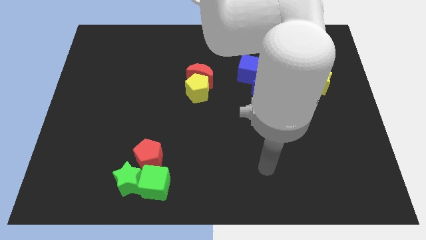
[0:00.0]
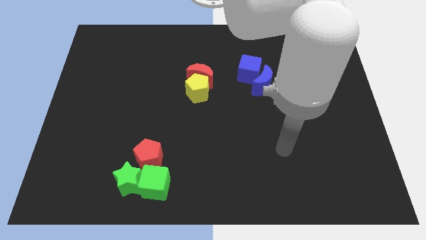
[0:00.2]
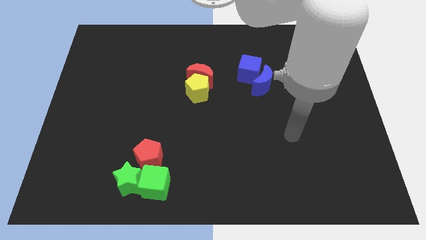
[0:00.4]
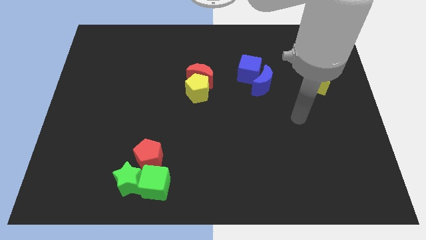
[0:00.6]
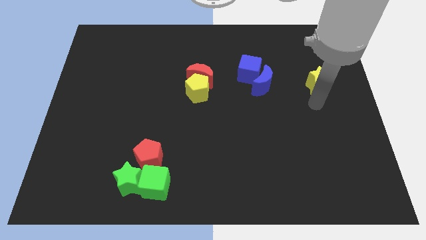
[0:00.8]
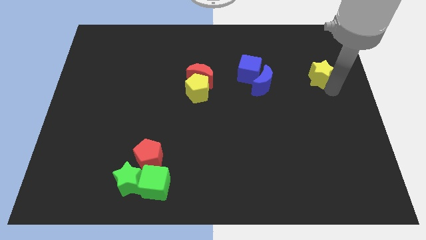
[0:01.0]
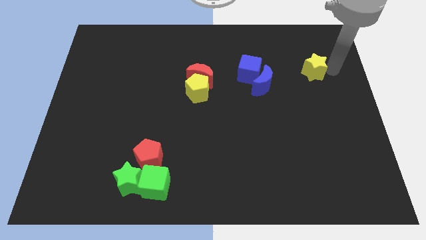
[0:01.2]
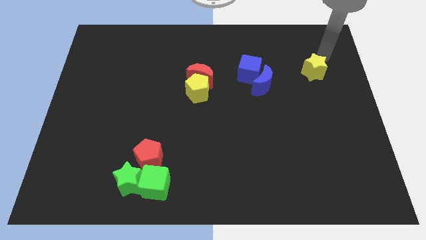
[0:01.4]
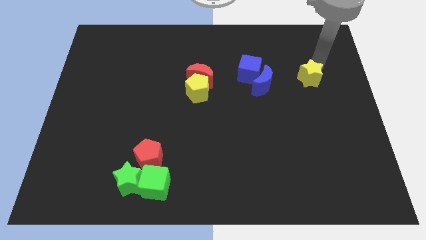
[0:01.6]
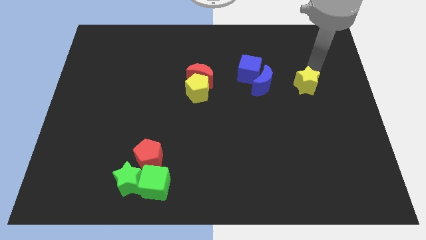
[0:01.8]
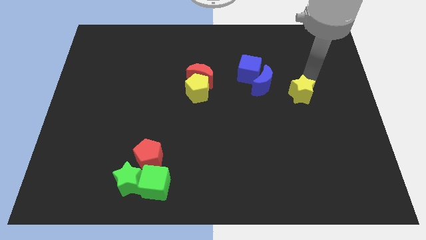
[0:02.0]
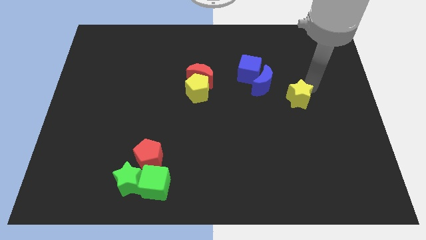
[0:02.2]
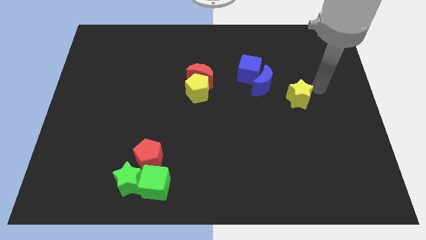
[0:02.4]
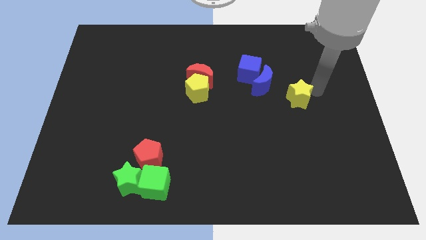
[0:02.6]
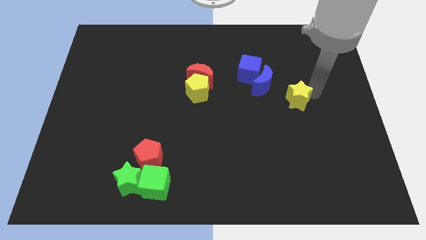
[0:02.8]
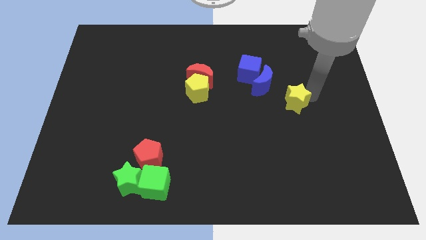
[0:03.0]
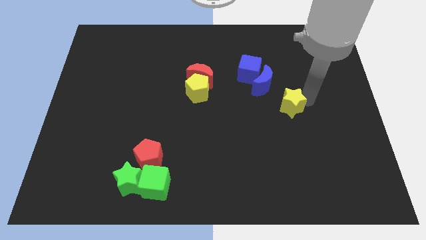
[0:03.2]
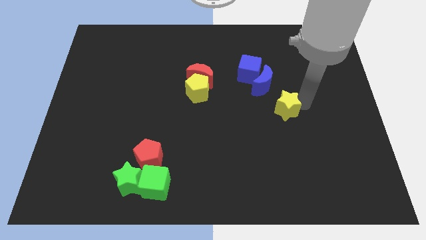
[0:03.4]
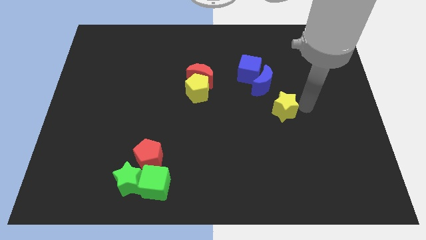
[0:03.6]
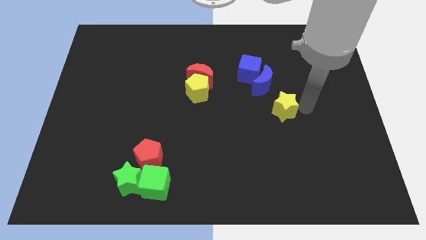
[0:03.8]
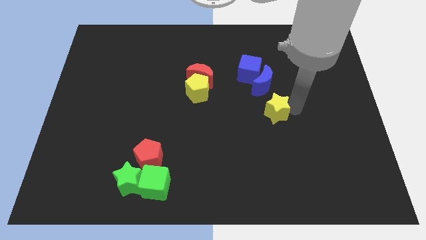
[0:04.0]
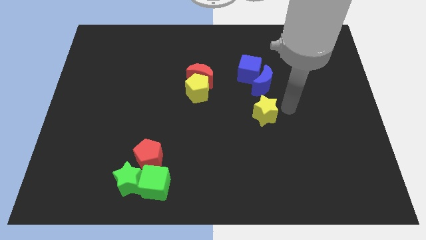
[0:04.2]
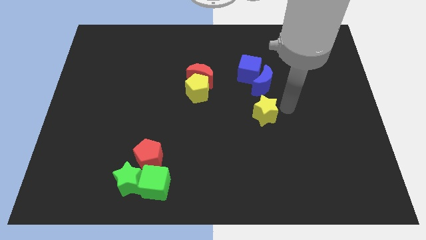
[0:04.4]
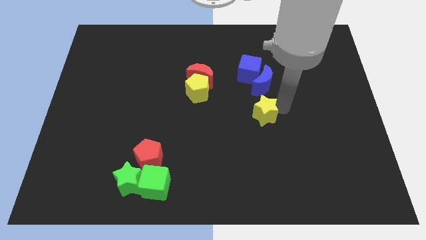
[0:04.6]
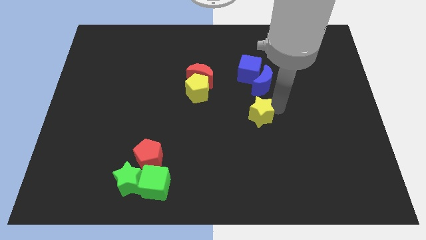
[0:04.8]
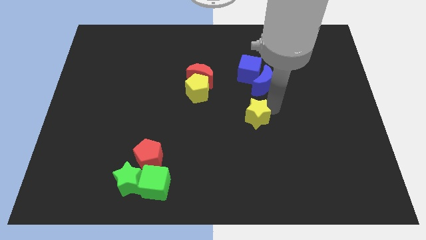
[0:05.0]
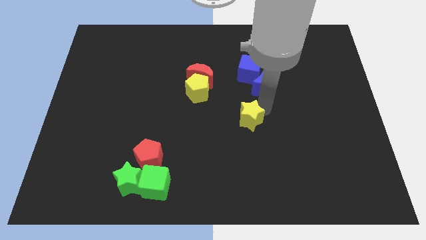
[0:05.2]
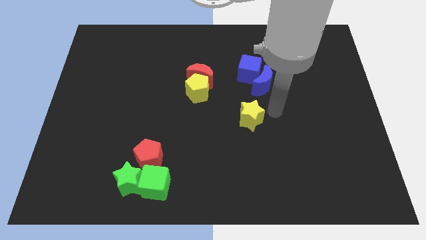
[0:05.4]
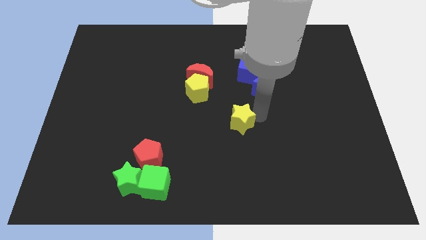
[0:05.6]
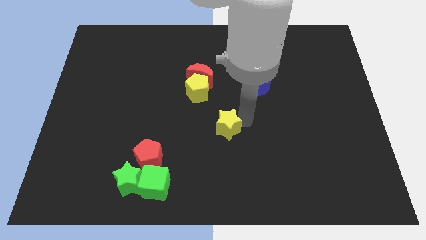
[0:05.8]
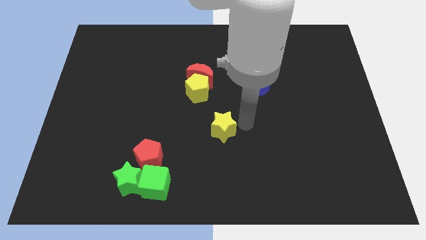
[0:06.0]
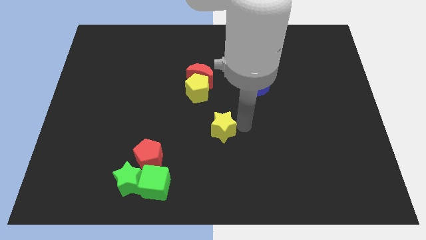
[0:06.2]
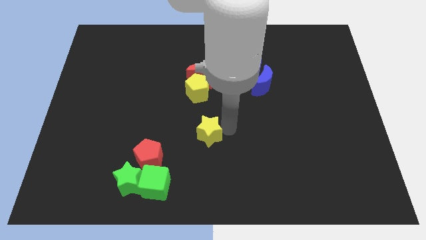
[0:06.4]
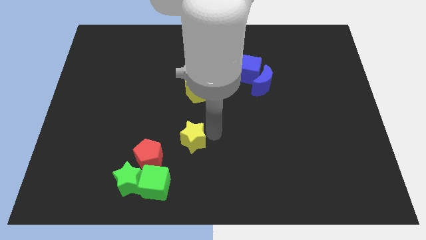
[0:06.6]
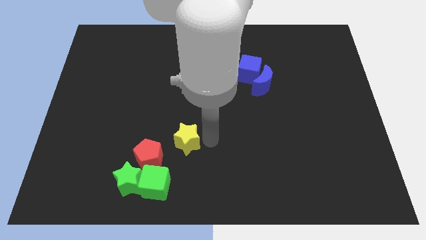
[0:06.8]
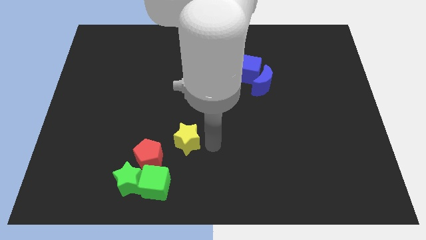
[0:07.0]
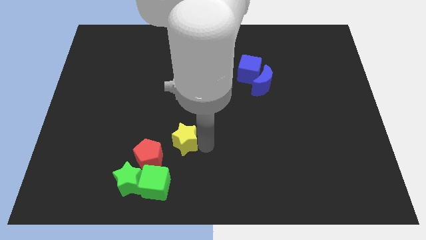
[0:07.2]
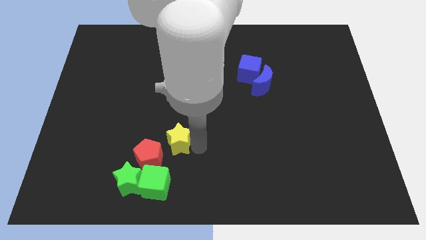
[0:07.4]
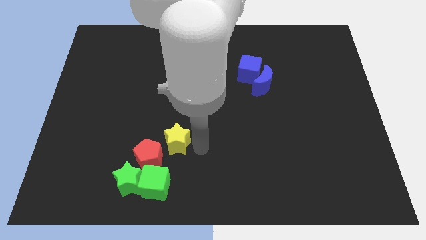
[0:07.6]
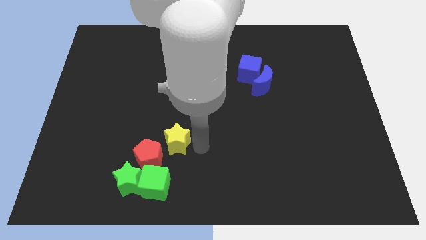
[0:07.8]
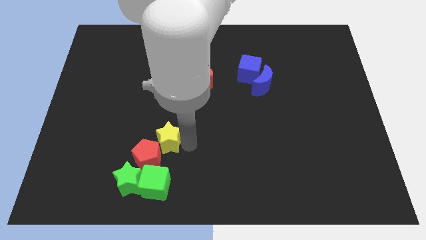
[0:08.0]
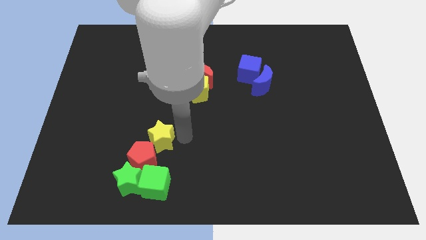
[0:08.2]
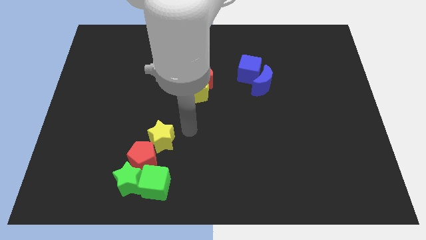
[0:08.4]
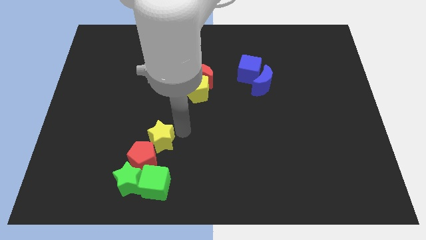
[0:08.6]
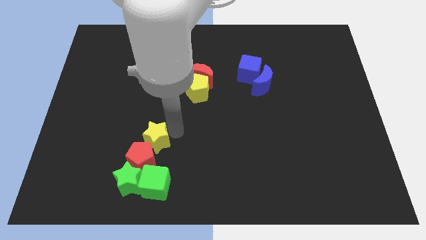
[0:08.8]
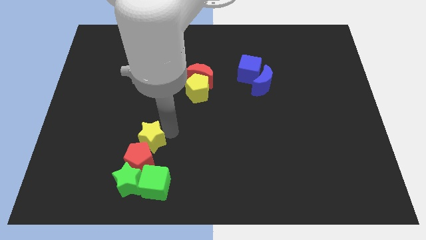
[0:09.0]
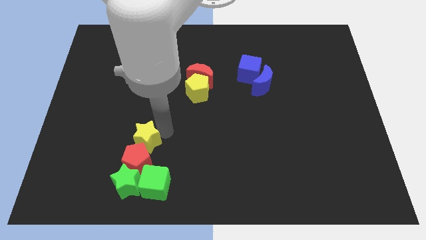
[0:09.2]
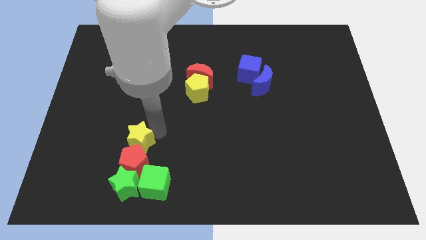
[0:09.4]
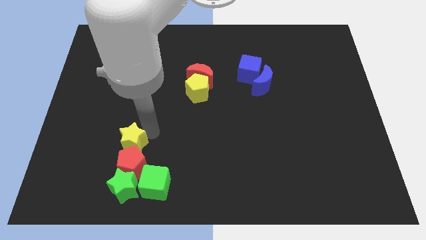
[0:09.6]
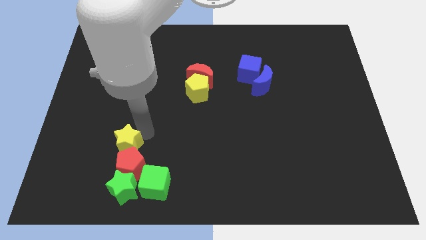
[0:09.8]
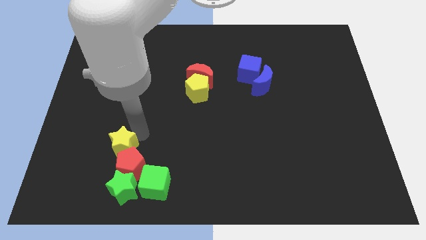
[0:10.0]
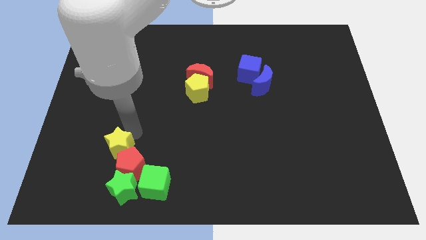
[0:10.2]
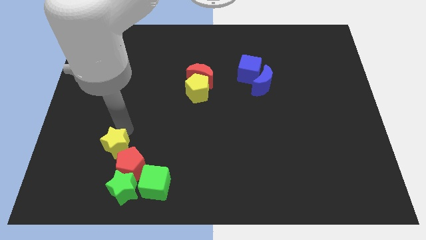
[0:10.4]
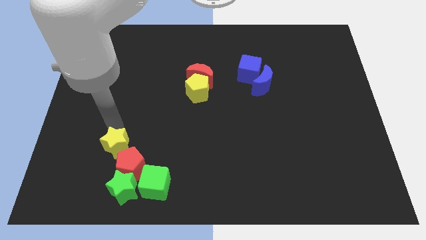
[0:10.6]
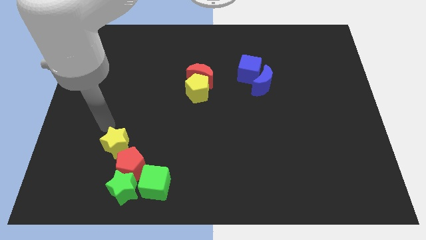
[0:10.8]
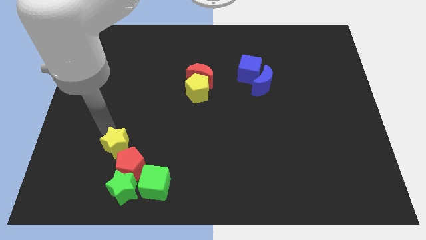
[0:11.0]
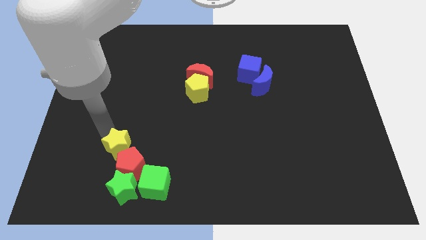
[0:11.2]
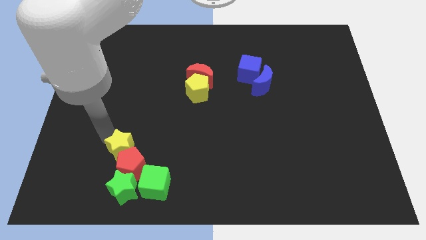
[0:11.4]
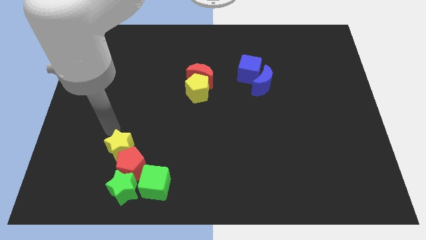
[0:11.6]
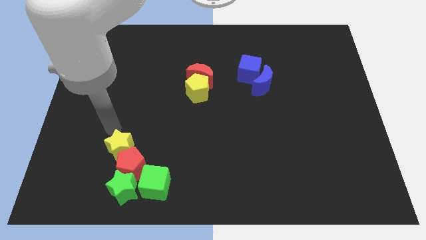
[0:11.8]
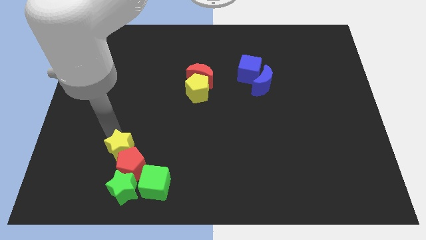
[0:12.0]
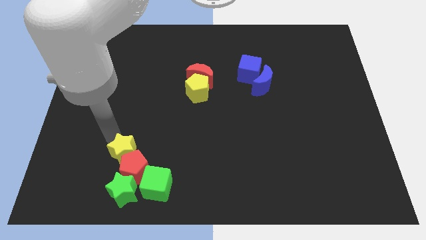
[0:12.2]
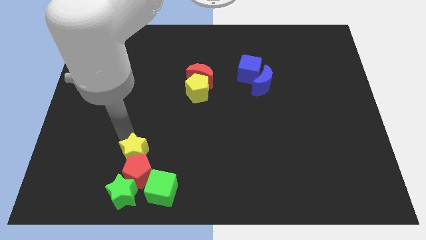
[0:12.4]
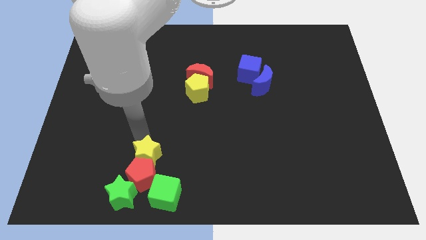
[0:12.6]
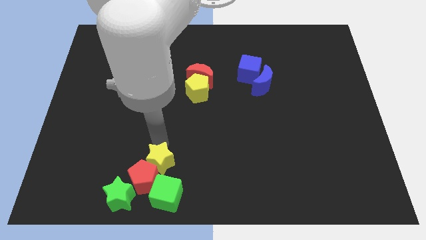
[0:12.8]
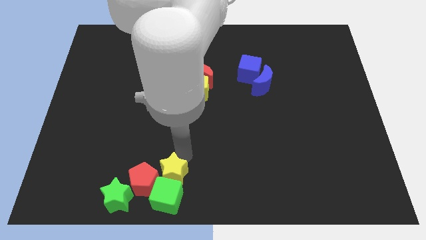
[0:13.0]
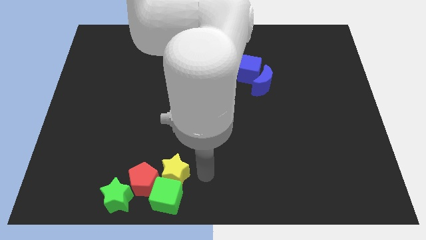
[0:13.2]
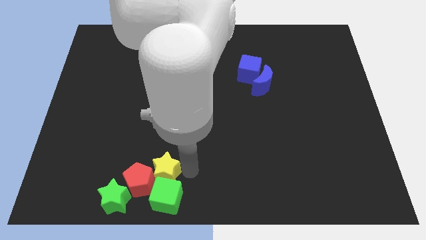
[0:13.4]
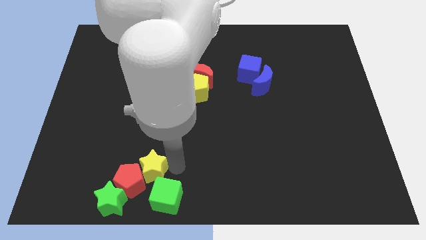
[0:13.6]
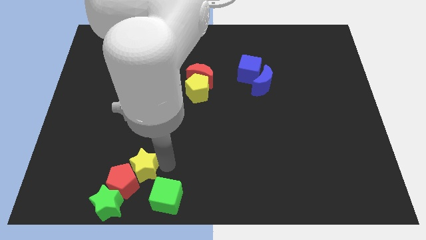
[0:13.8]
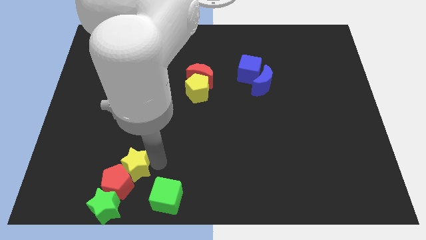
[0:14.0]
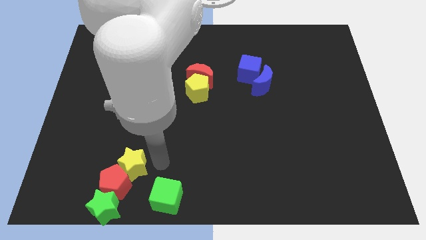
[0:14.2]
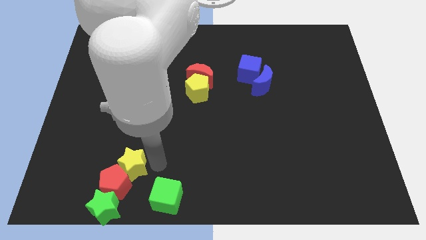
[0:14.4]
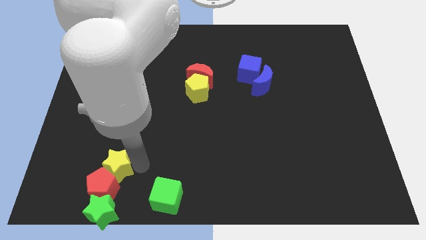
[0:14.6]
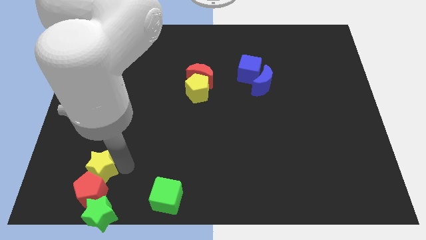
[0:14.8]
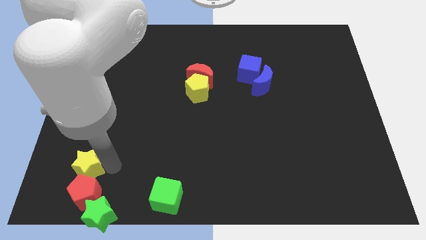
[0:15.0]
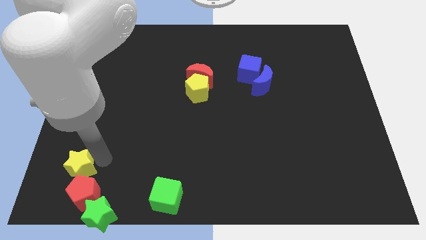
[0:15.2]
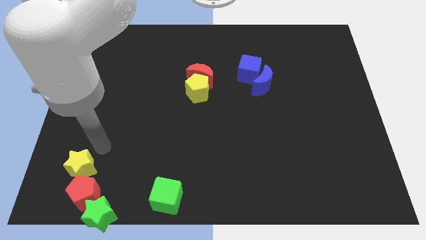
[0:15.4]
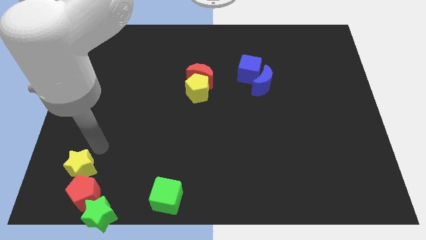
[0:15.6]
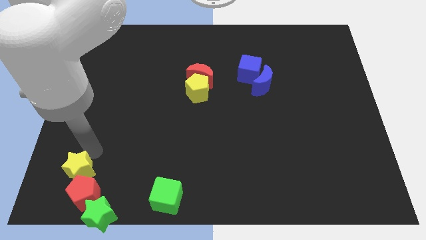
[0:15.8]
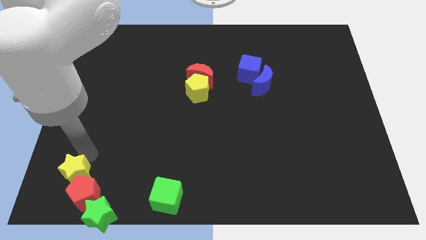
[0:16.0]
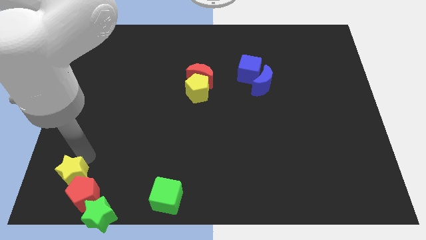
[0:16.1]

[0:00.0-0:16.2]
slide the yellow star to the bottom left
